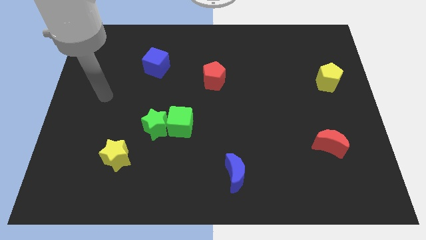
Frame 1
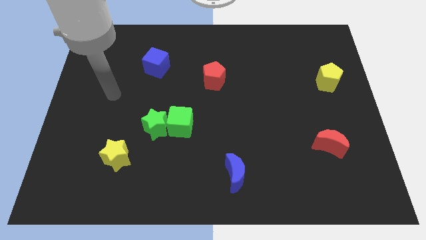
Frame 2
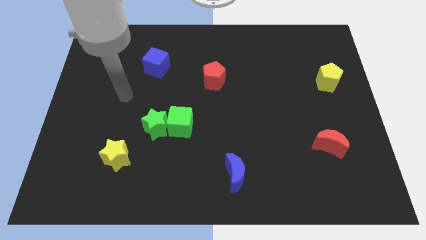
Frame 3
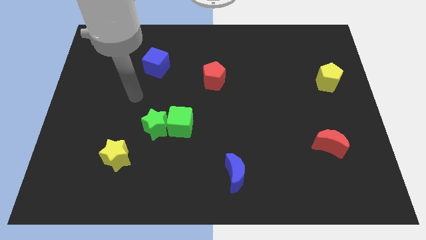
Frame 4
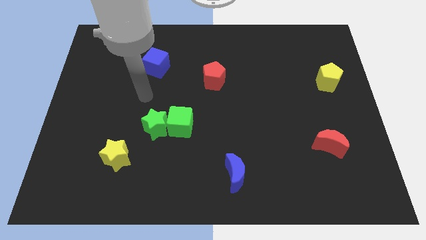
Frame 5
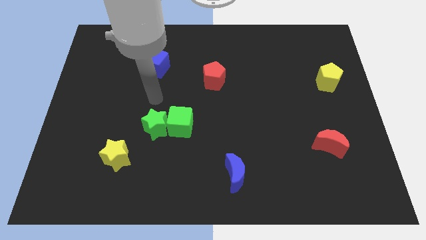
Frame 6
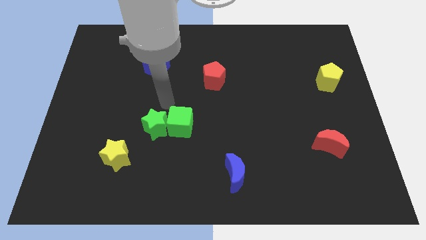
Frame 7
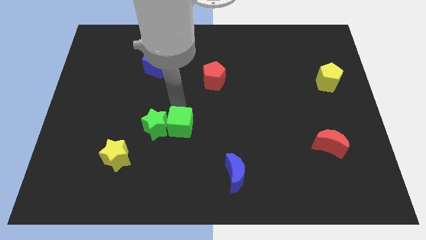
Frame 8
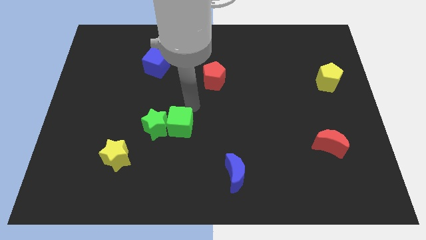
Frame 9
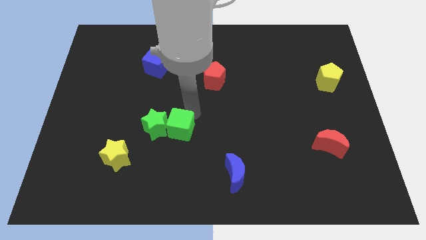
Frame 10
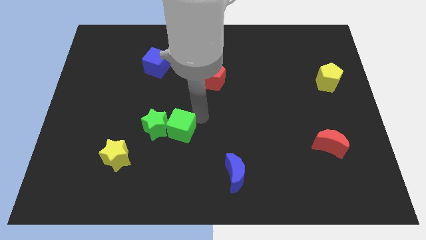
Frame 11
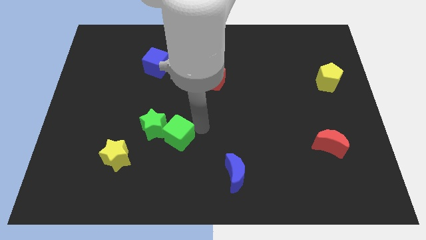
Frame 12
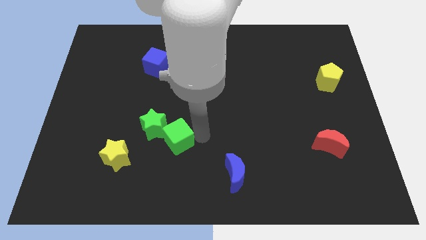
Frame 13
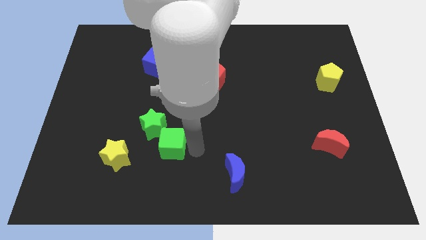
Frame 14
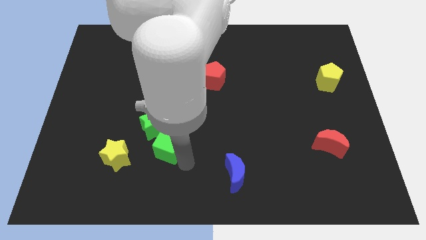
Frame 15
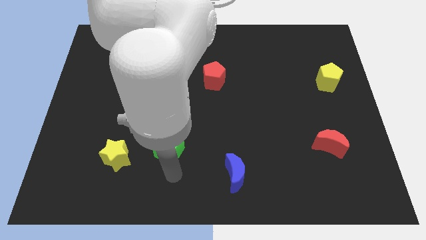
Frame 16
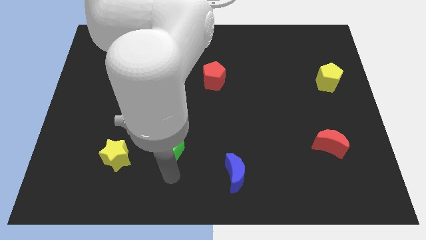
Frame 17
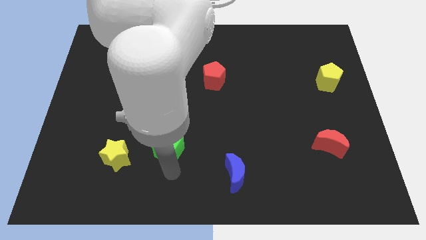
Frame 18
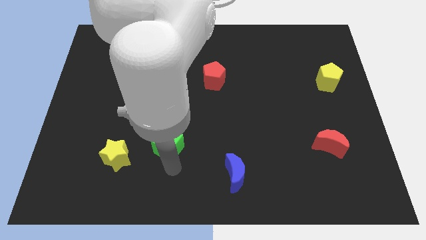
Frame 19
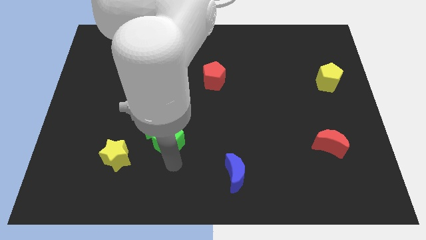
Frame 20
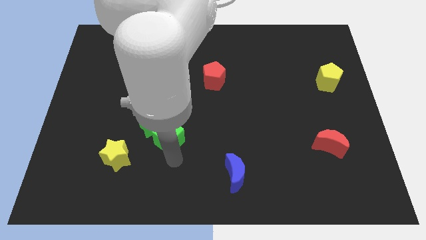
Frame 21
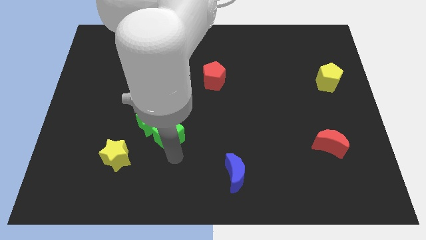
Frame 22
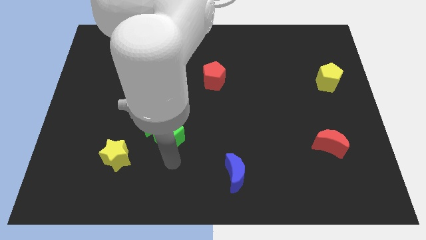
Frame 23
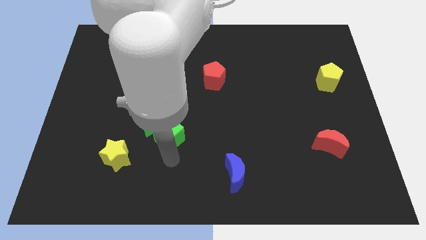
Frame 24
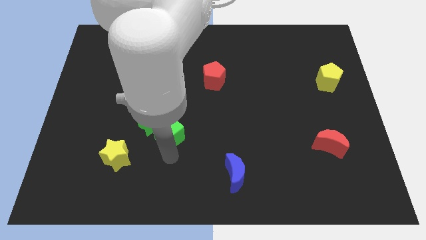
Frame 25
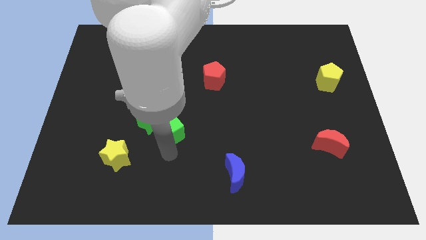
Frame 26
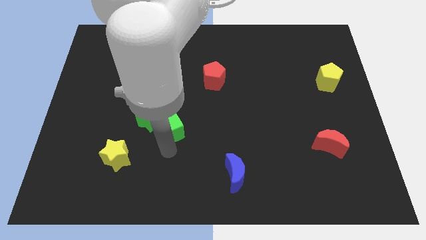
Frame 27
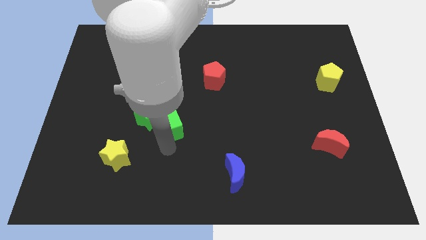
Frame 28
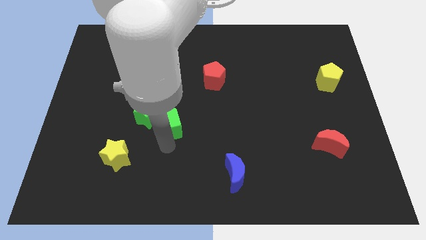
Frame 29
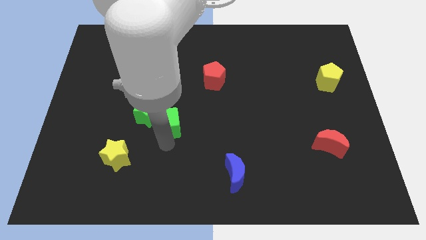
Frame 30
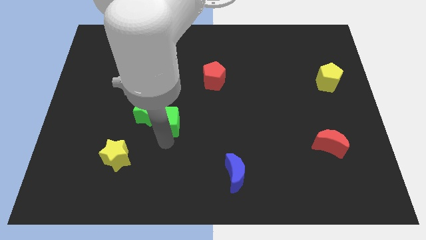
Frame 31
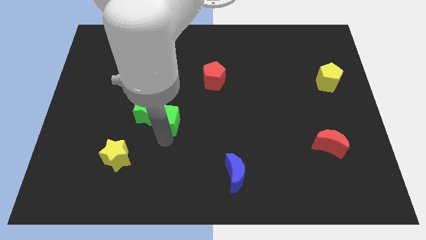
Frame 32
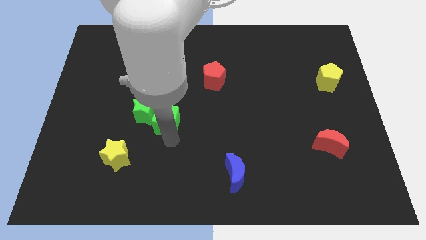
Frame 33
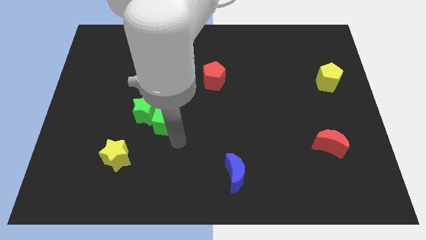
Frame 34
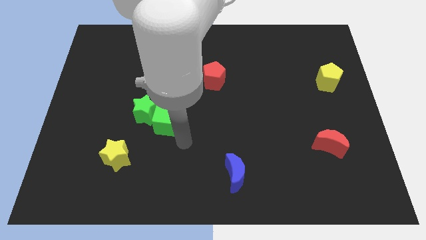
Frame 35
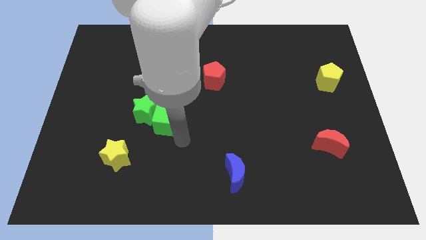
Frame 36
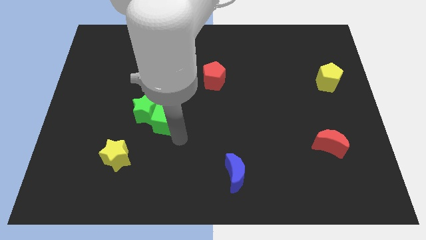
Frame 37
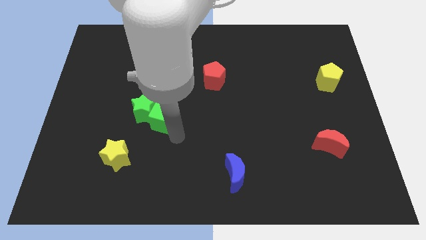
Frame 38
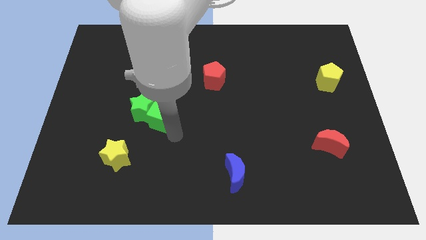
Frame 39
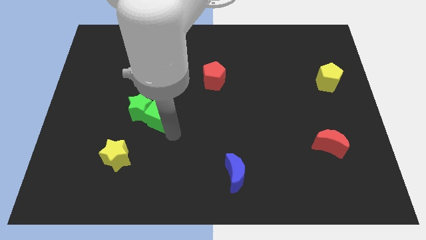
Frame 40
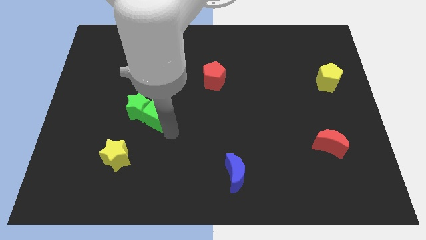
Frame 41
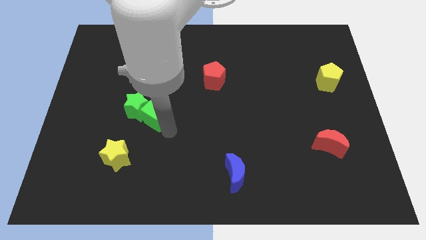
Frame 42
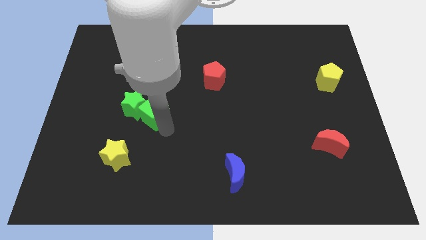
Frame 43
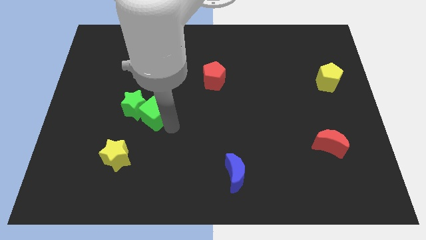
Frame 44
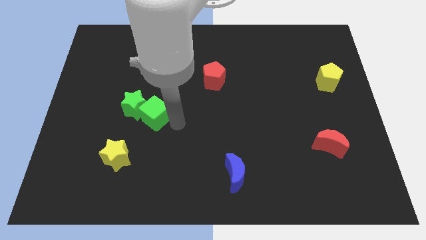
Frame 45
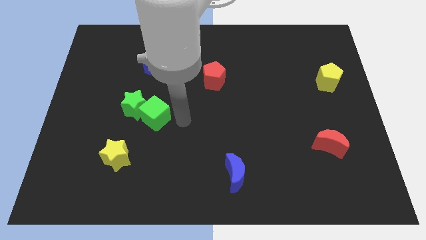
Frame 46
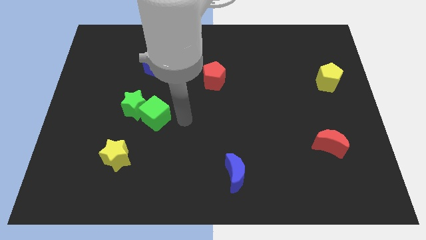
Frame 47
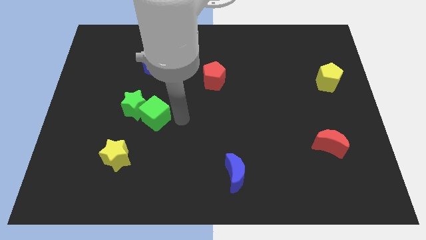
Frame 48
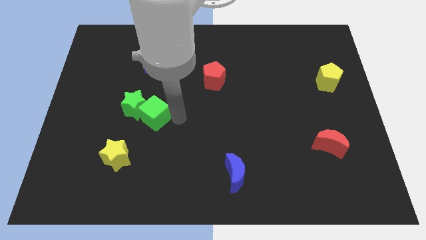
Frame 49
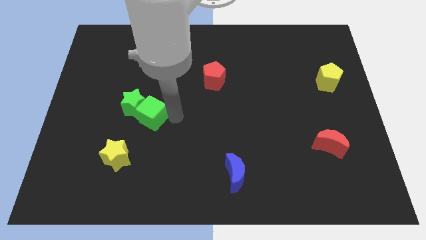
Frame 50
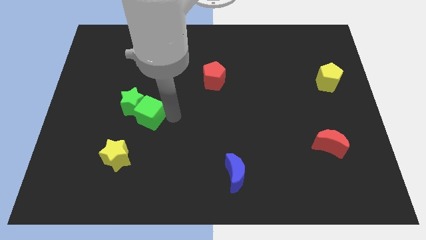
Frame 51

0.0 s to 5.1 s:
push the green cube slightly left

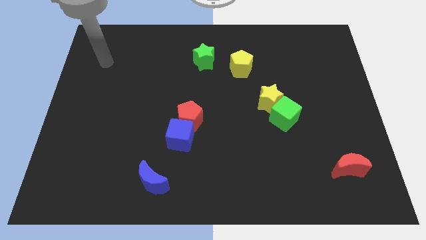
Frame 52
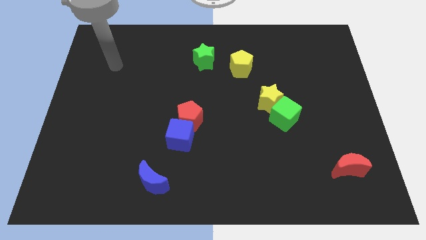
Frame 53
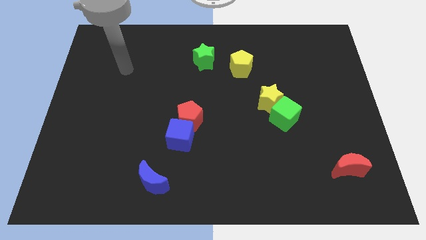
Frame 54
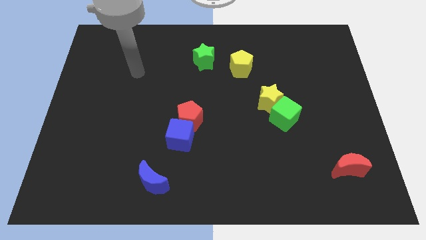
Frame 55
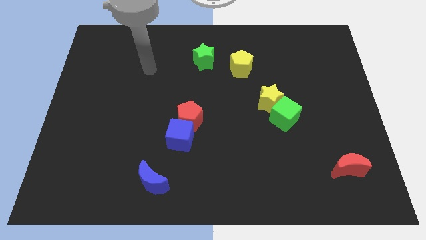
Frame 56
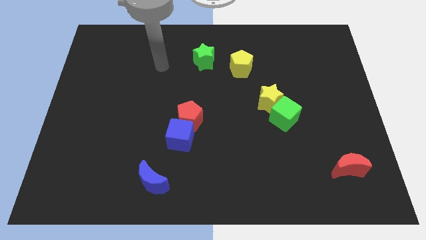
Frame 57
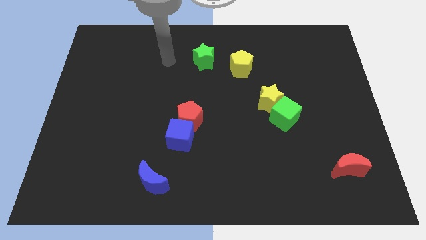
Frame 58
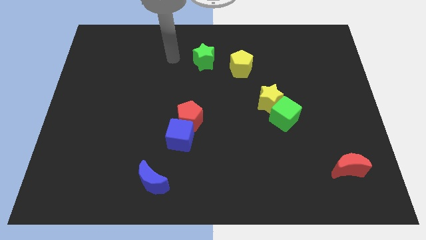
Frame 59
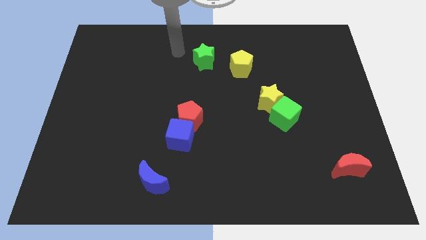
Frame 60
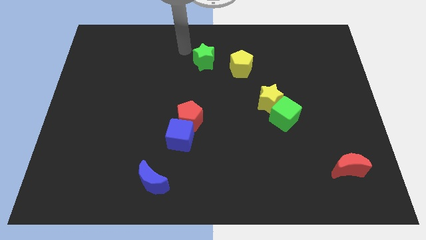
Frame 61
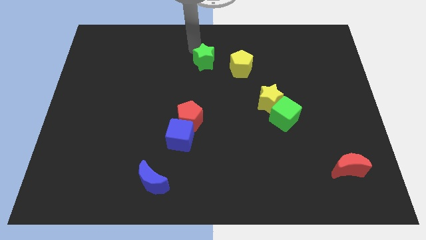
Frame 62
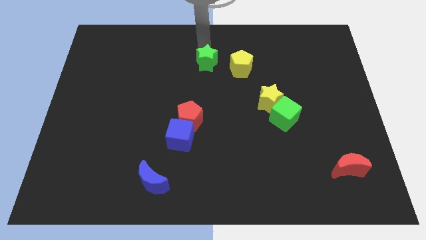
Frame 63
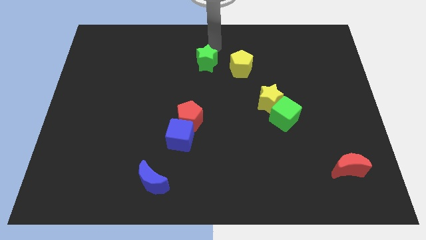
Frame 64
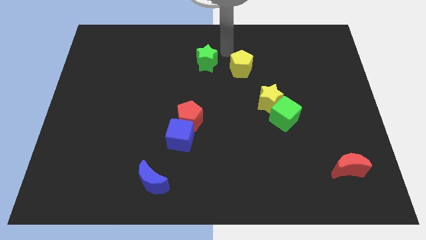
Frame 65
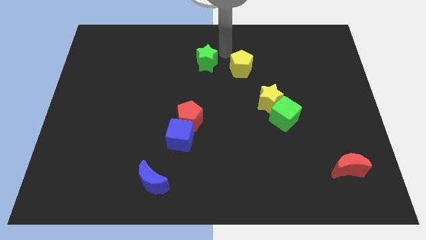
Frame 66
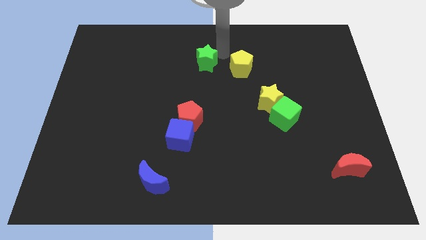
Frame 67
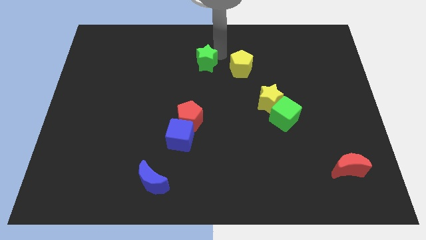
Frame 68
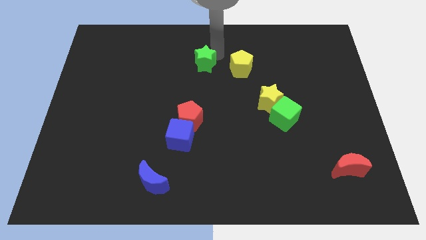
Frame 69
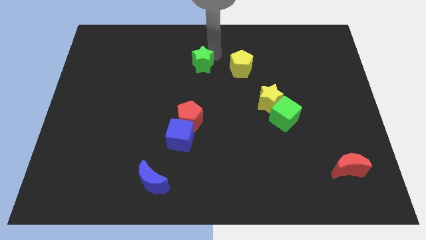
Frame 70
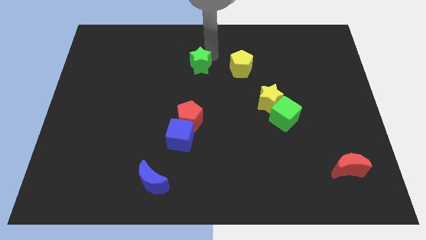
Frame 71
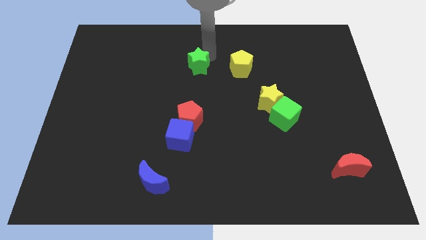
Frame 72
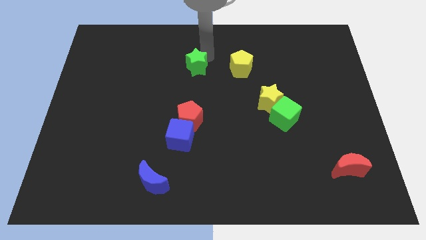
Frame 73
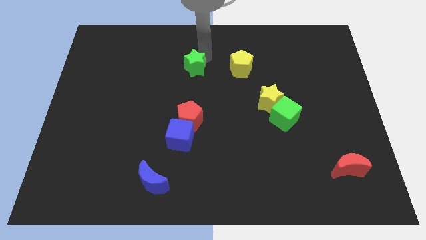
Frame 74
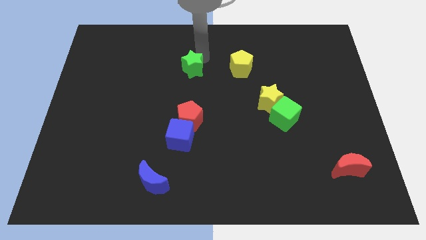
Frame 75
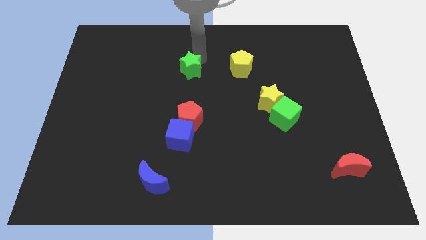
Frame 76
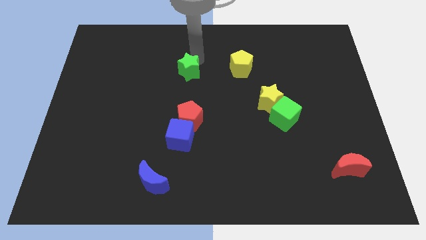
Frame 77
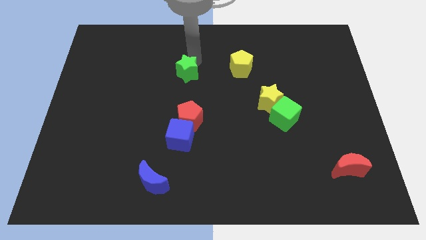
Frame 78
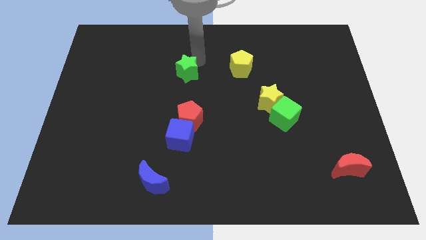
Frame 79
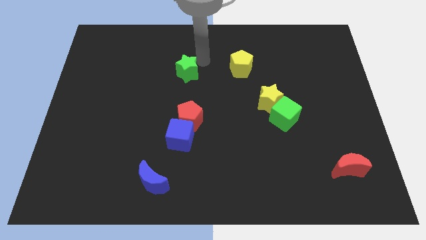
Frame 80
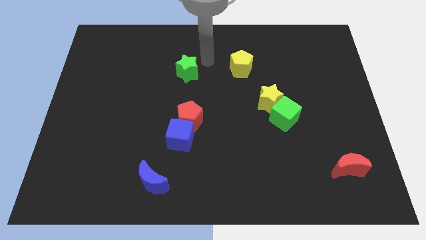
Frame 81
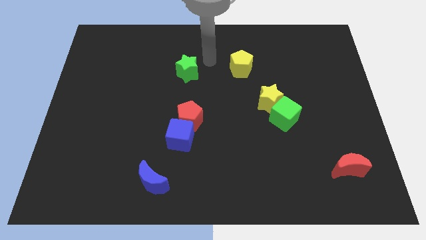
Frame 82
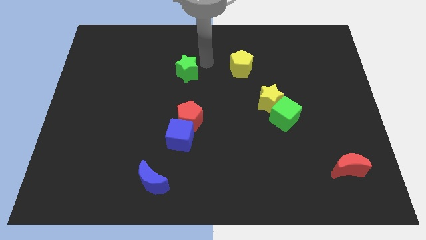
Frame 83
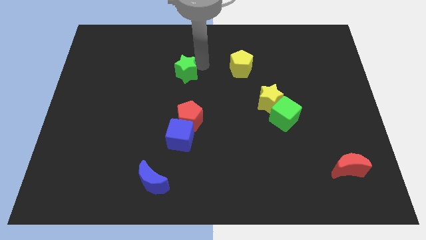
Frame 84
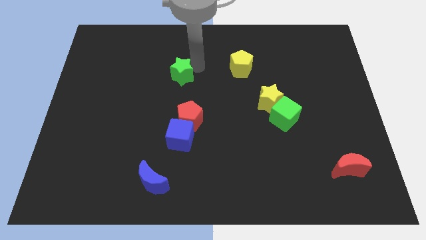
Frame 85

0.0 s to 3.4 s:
move the green star down and then left a little
